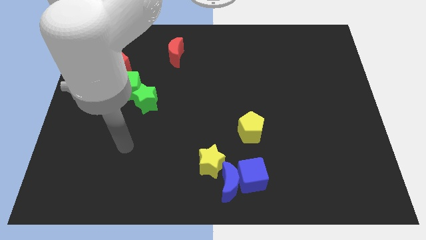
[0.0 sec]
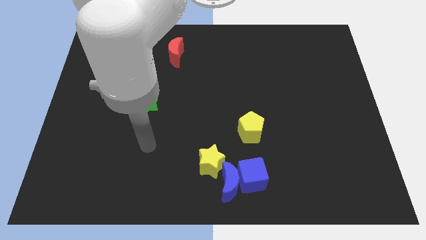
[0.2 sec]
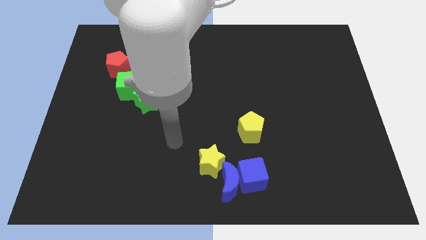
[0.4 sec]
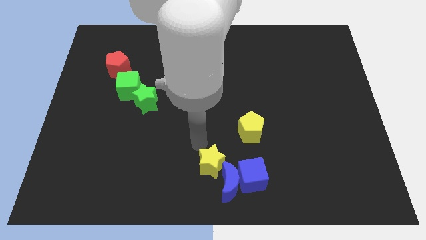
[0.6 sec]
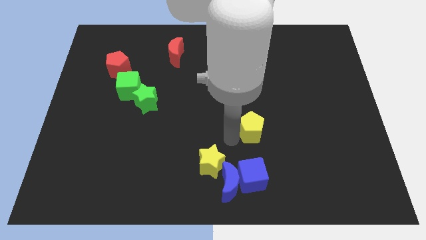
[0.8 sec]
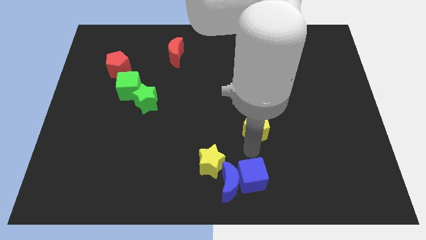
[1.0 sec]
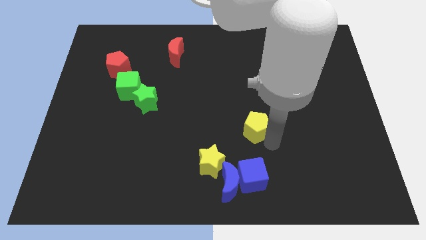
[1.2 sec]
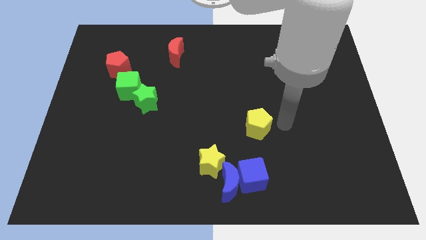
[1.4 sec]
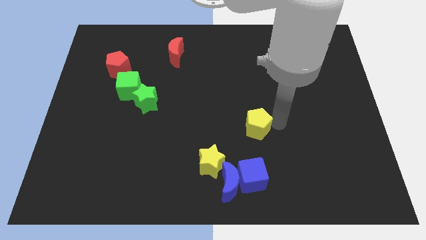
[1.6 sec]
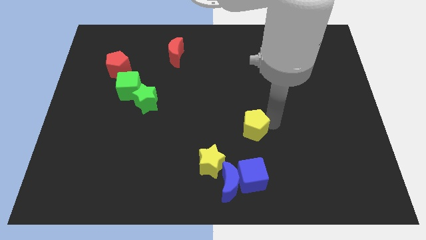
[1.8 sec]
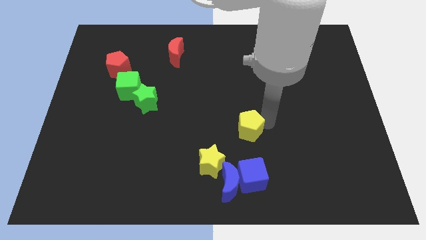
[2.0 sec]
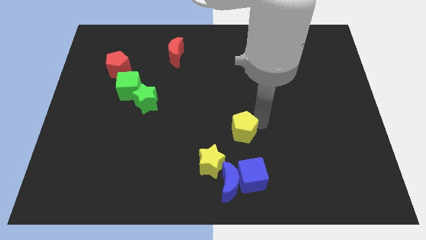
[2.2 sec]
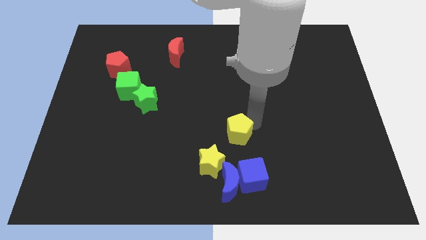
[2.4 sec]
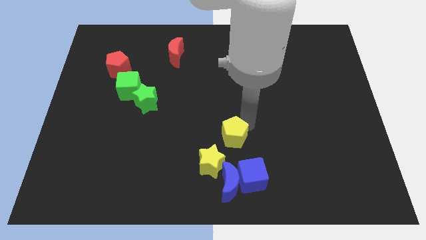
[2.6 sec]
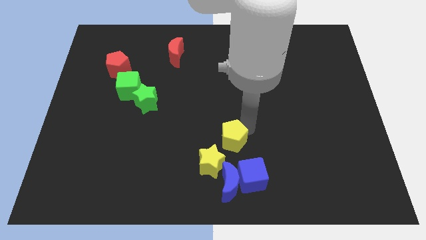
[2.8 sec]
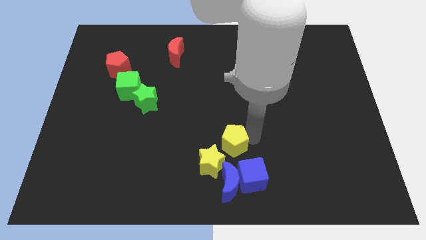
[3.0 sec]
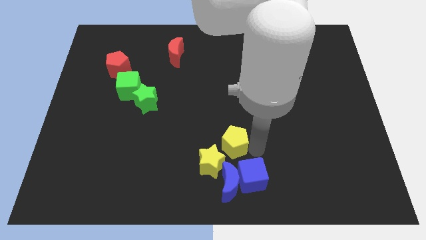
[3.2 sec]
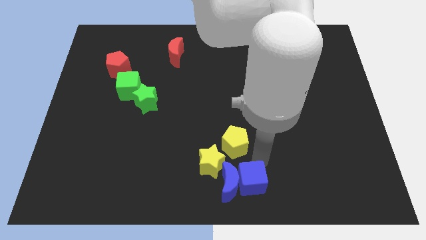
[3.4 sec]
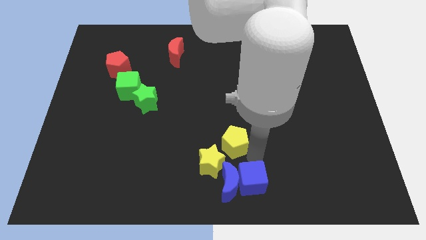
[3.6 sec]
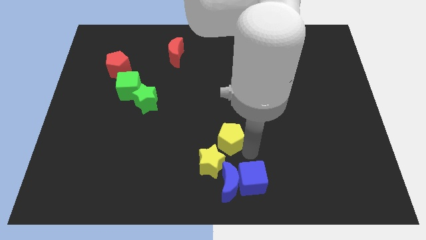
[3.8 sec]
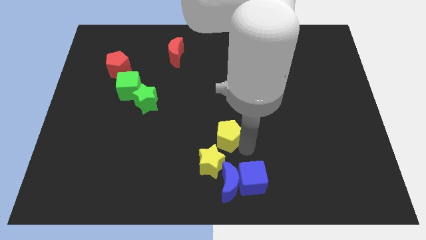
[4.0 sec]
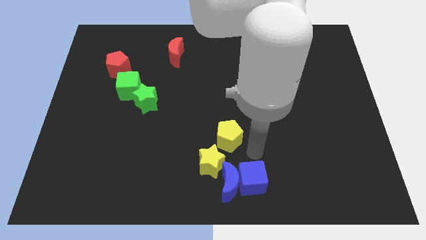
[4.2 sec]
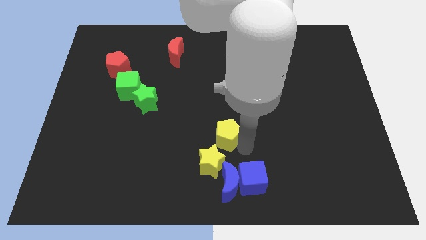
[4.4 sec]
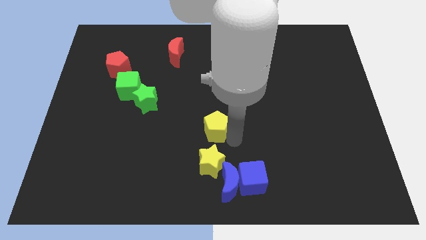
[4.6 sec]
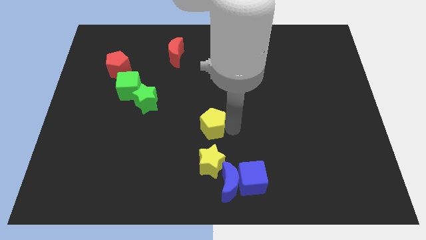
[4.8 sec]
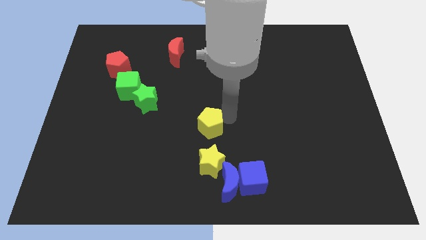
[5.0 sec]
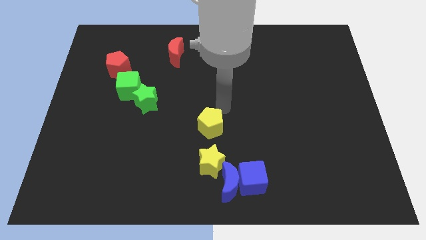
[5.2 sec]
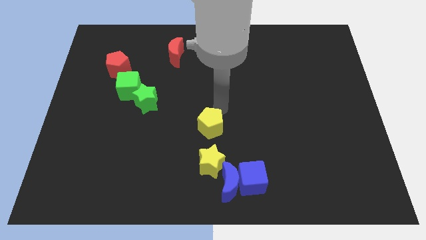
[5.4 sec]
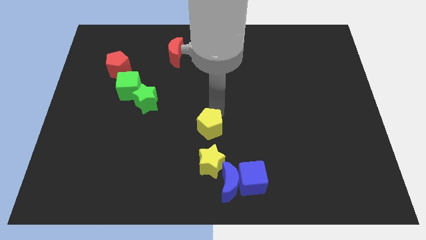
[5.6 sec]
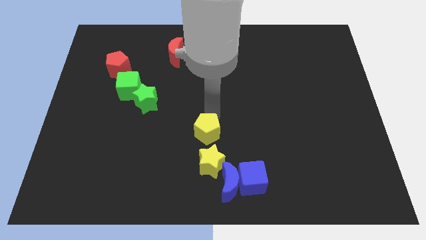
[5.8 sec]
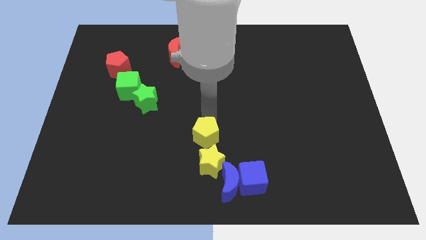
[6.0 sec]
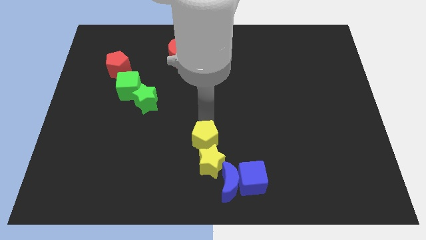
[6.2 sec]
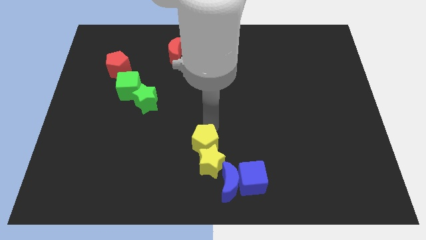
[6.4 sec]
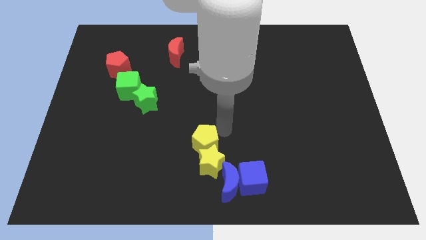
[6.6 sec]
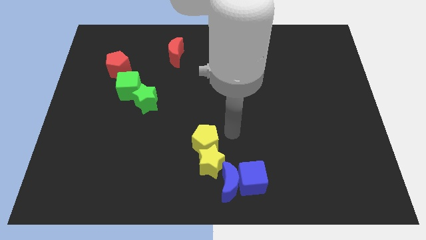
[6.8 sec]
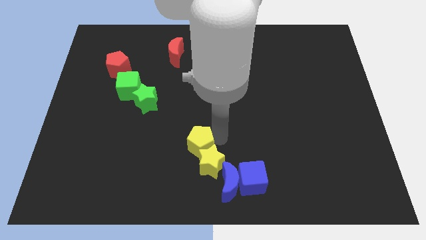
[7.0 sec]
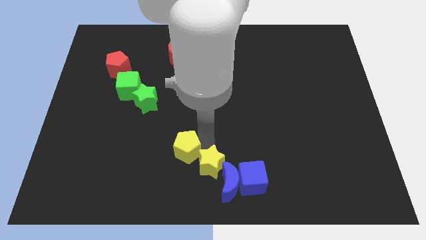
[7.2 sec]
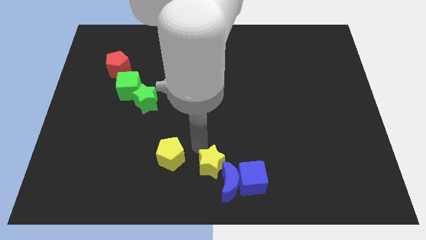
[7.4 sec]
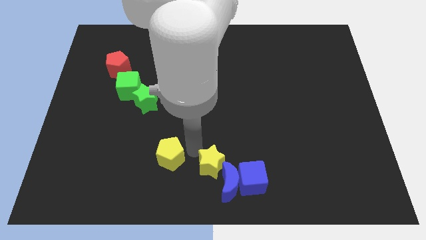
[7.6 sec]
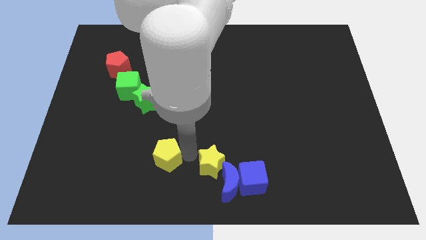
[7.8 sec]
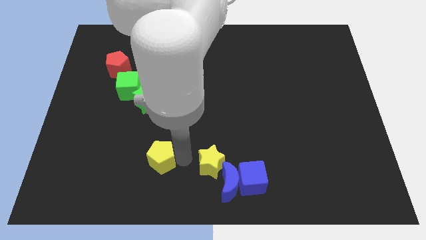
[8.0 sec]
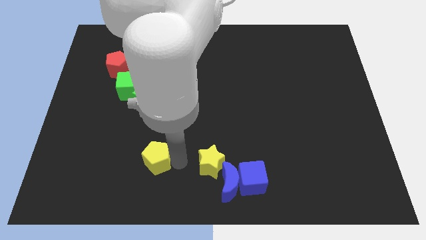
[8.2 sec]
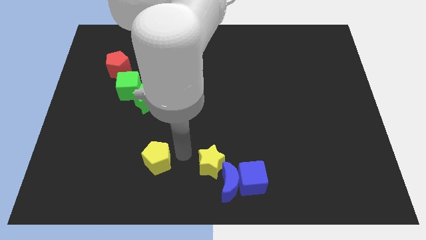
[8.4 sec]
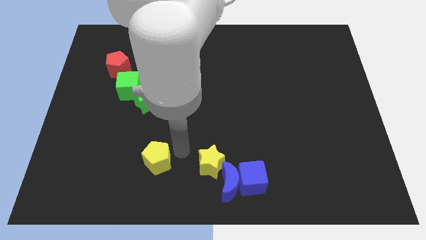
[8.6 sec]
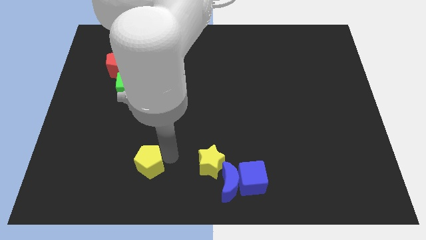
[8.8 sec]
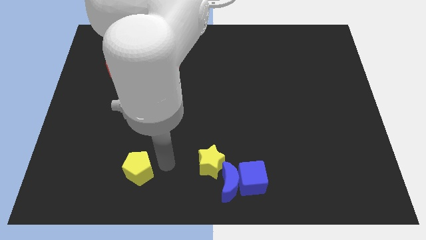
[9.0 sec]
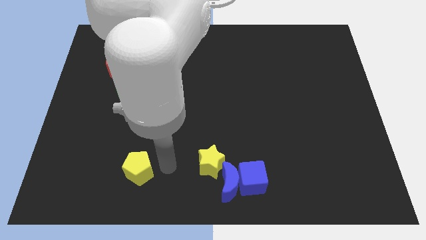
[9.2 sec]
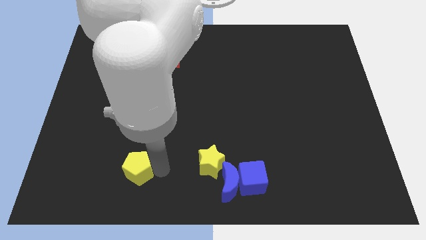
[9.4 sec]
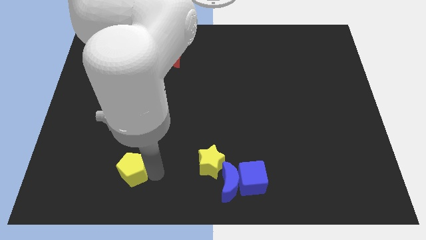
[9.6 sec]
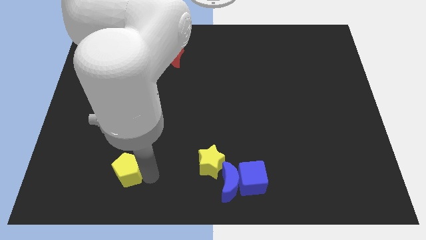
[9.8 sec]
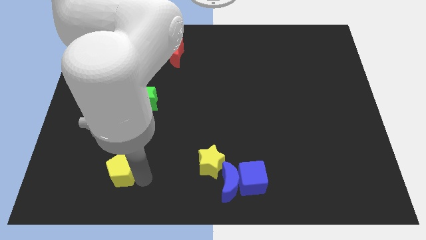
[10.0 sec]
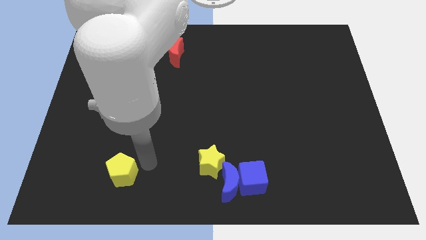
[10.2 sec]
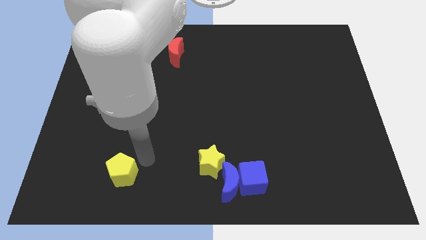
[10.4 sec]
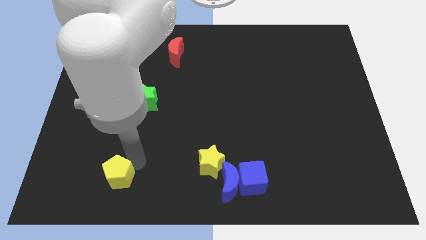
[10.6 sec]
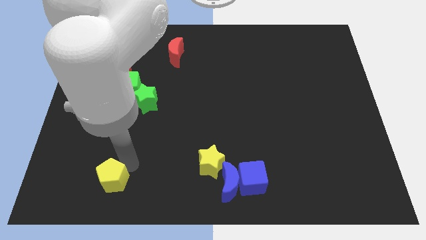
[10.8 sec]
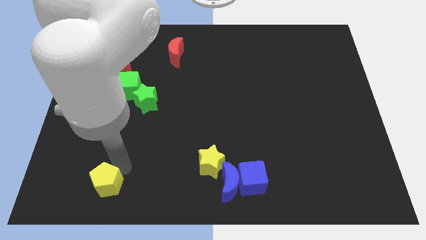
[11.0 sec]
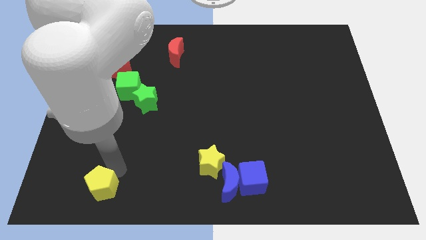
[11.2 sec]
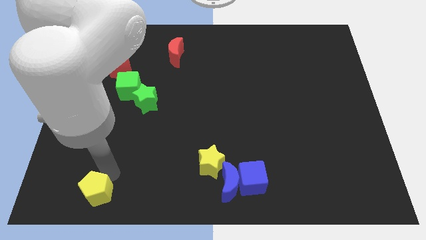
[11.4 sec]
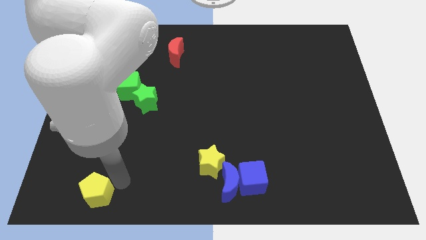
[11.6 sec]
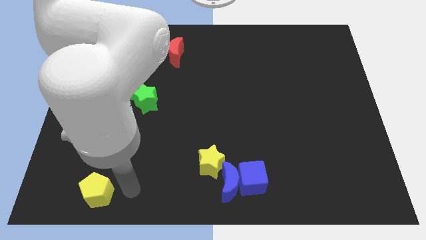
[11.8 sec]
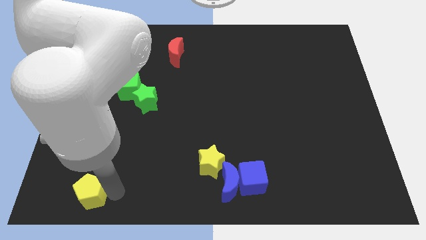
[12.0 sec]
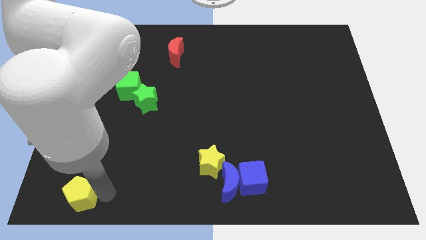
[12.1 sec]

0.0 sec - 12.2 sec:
move the yellow pentagon to the bottom left of the board
